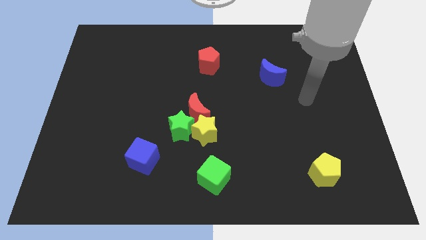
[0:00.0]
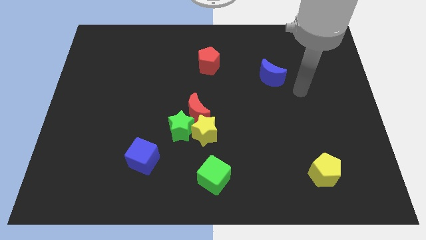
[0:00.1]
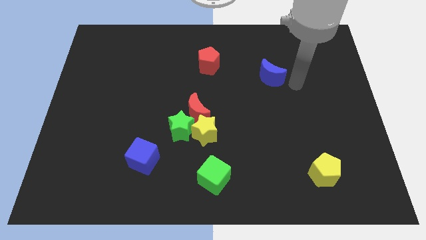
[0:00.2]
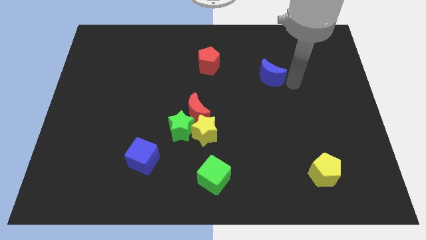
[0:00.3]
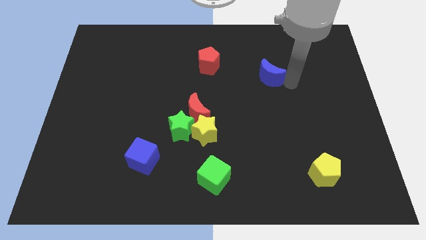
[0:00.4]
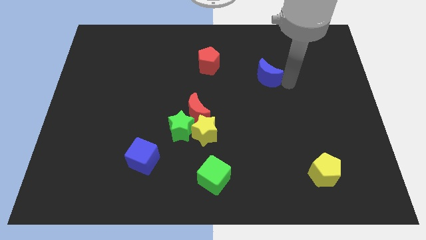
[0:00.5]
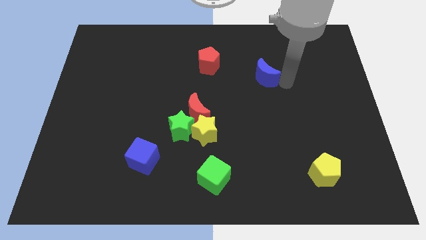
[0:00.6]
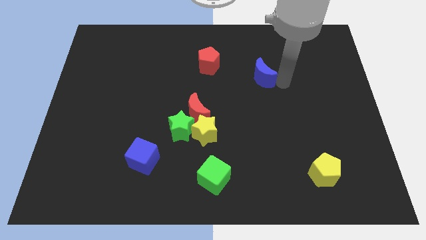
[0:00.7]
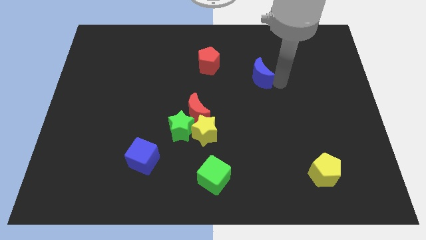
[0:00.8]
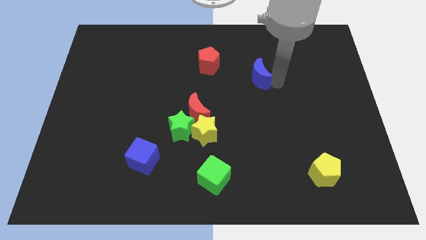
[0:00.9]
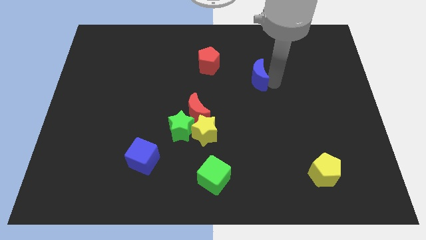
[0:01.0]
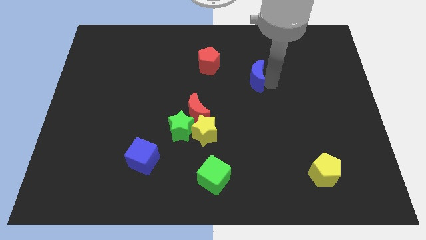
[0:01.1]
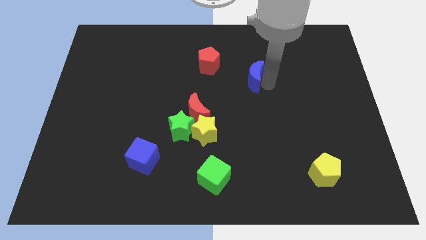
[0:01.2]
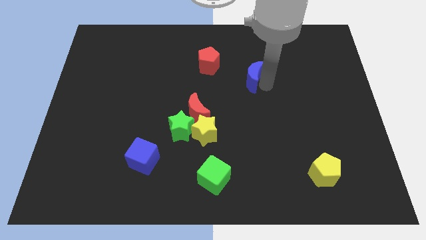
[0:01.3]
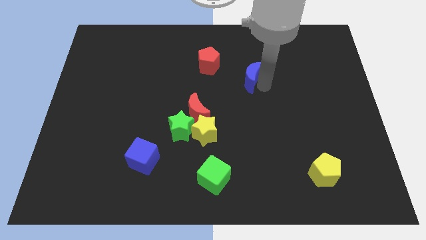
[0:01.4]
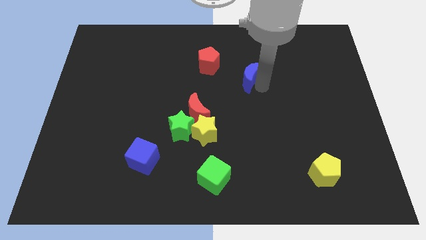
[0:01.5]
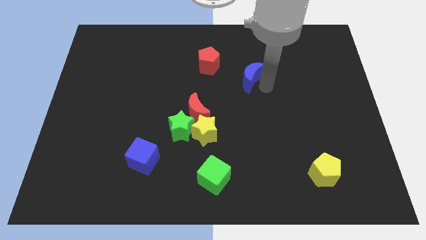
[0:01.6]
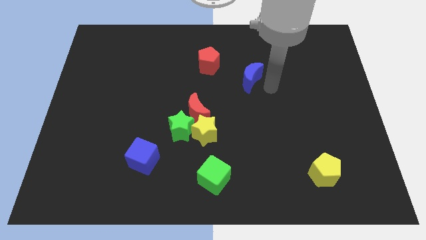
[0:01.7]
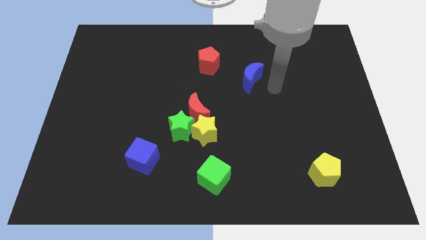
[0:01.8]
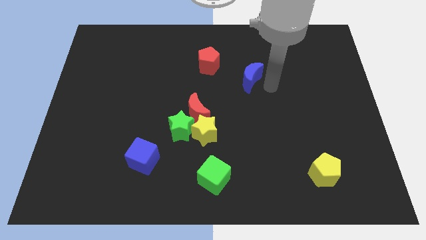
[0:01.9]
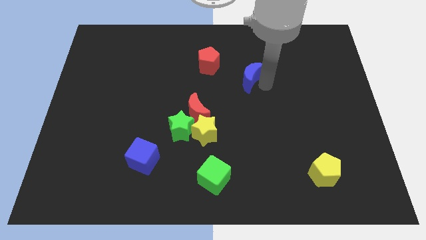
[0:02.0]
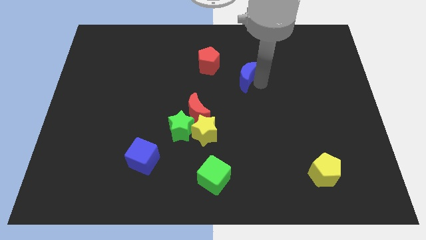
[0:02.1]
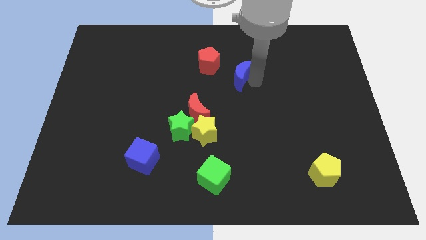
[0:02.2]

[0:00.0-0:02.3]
move the blue moon a little left

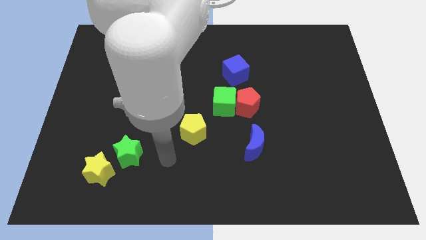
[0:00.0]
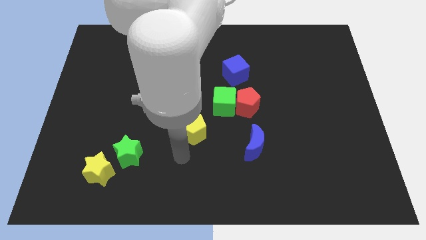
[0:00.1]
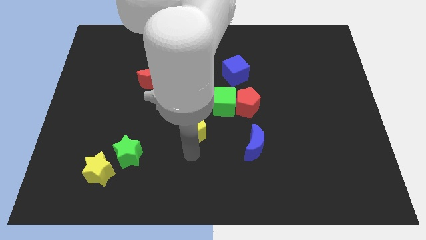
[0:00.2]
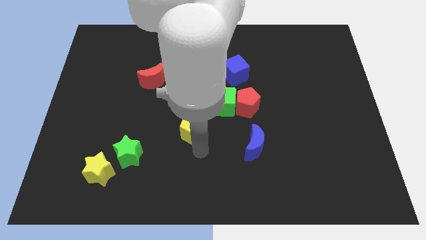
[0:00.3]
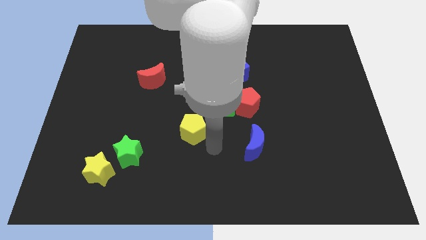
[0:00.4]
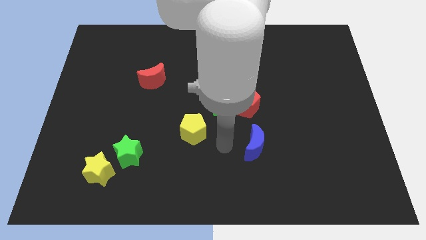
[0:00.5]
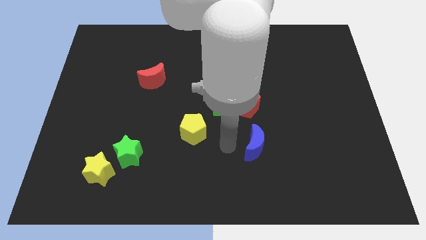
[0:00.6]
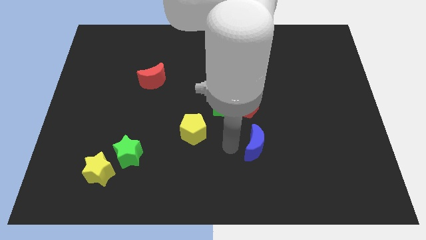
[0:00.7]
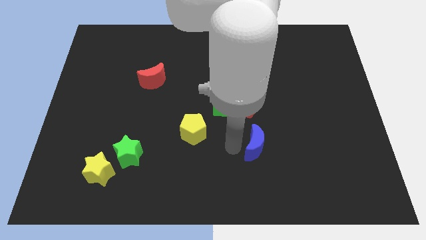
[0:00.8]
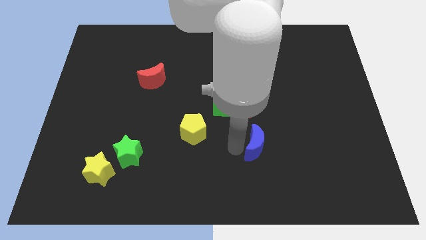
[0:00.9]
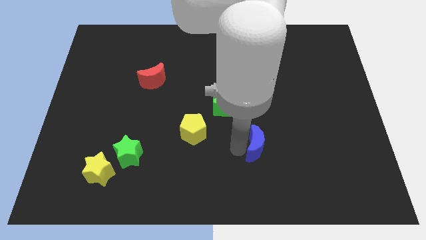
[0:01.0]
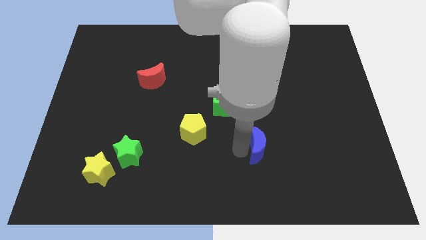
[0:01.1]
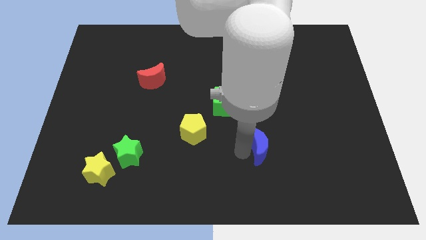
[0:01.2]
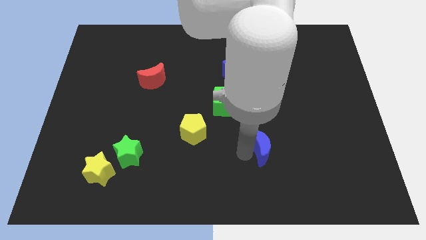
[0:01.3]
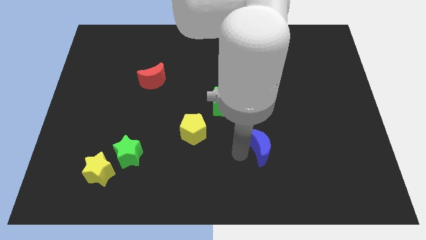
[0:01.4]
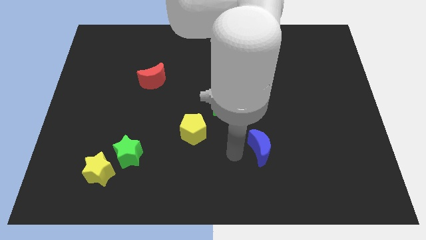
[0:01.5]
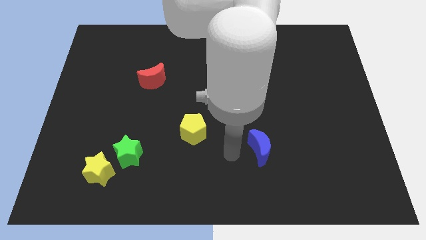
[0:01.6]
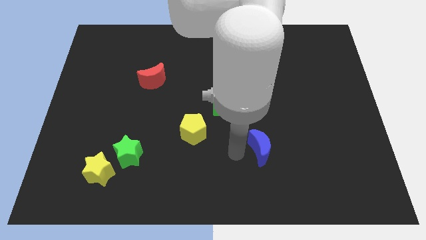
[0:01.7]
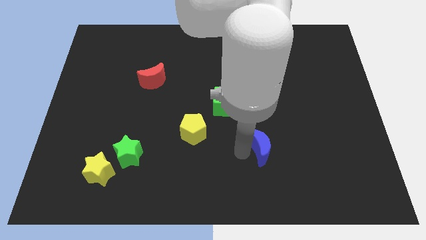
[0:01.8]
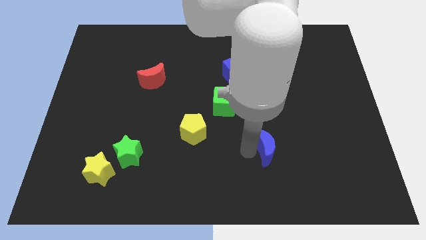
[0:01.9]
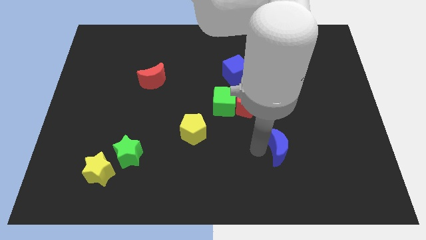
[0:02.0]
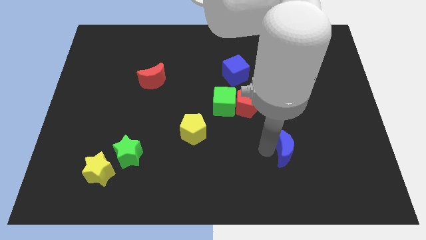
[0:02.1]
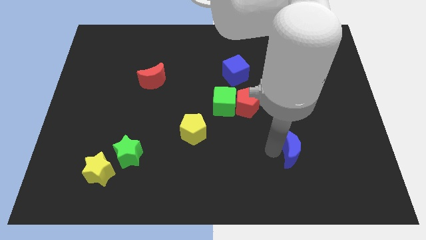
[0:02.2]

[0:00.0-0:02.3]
push the blue moon right a little bit

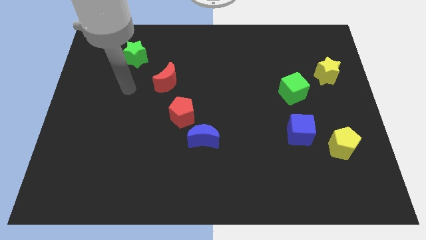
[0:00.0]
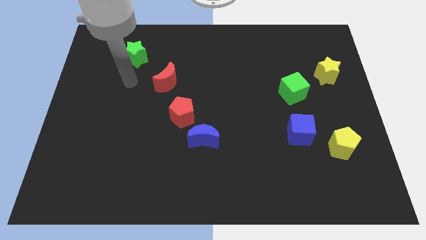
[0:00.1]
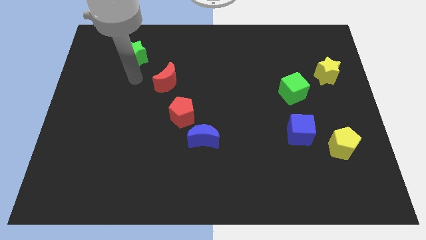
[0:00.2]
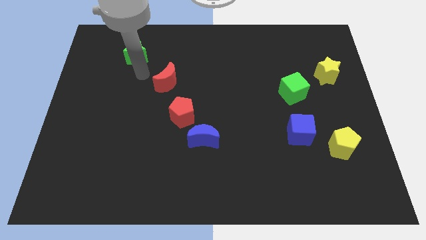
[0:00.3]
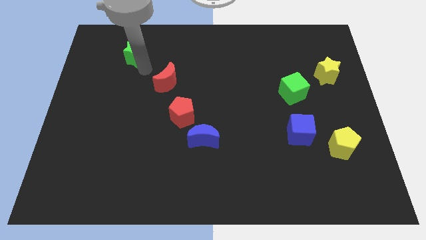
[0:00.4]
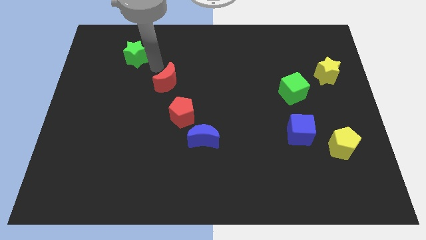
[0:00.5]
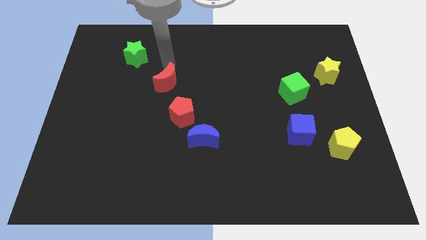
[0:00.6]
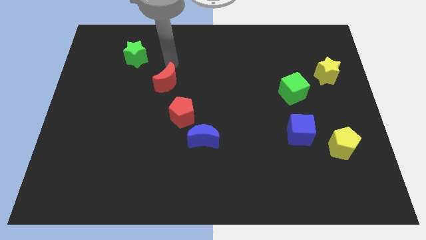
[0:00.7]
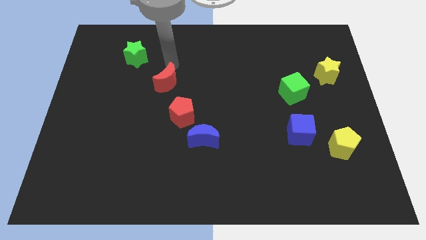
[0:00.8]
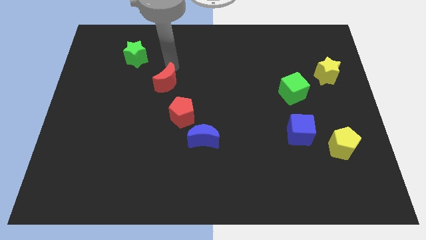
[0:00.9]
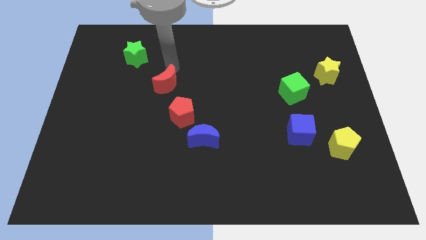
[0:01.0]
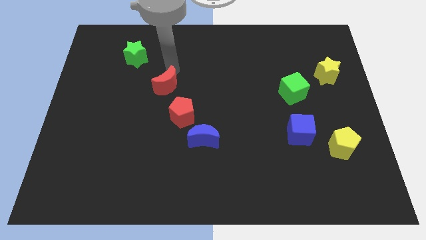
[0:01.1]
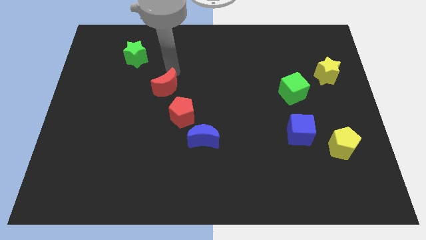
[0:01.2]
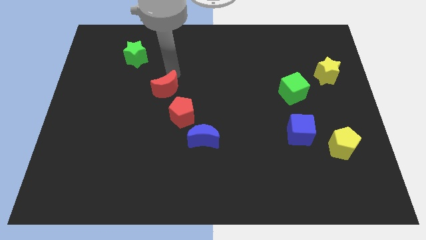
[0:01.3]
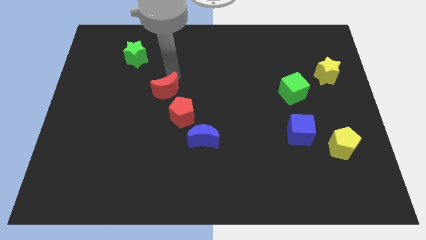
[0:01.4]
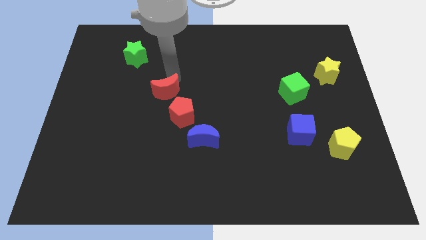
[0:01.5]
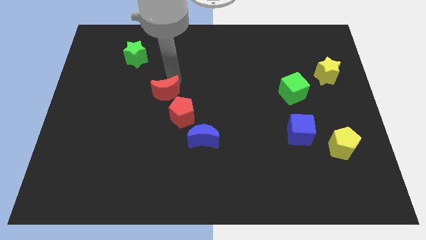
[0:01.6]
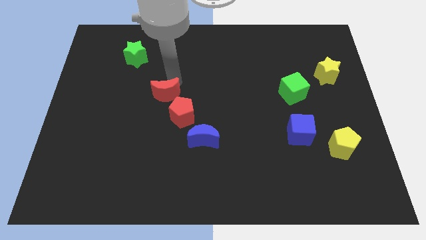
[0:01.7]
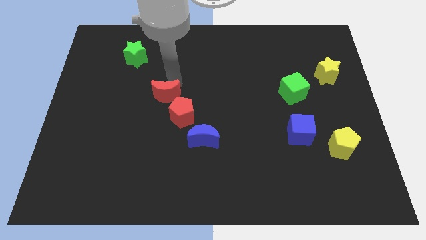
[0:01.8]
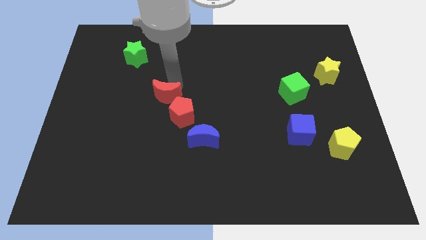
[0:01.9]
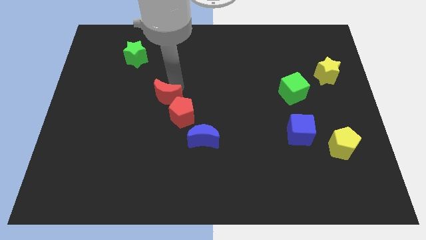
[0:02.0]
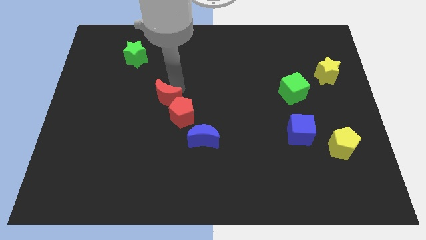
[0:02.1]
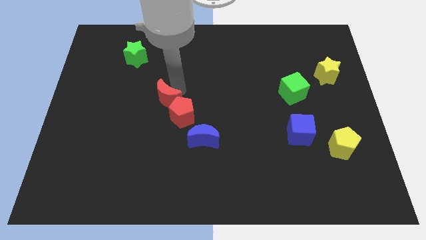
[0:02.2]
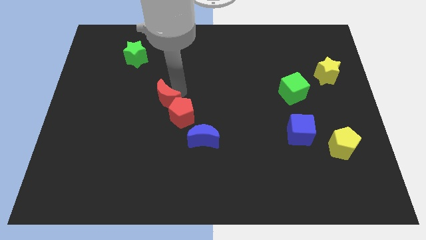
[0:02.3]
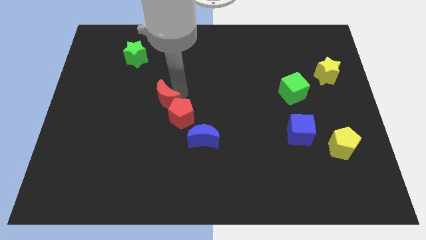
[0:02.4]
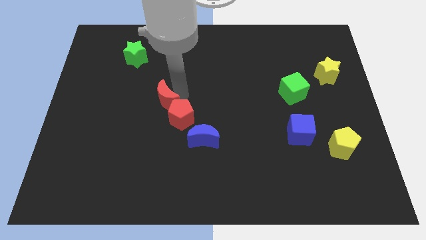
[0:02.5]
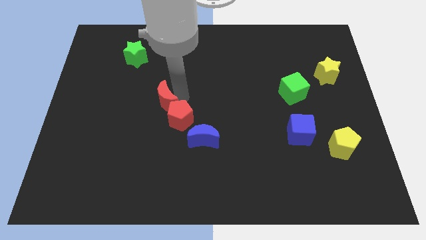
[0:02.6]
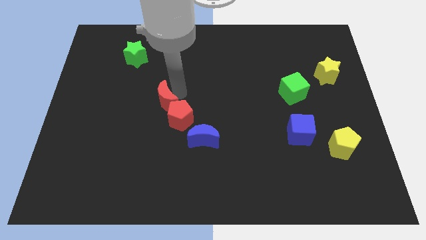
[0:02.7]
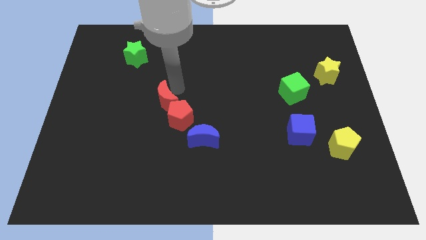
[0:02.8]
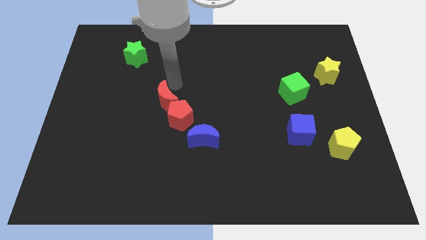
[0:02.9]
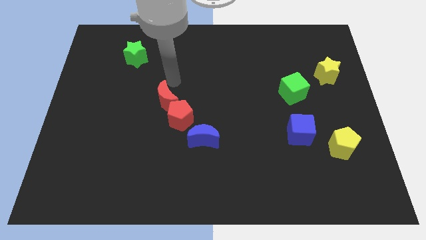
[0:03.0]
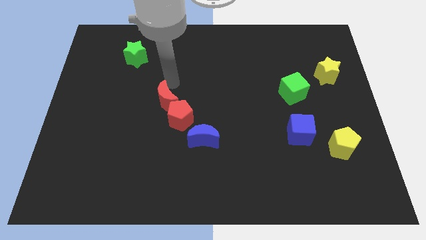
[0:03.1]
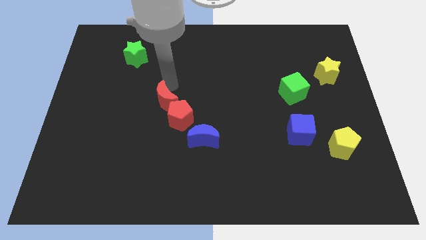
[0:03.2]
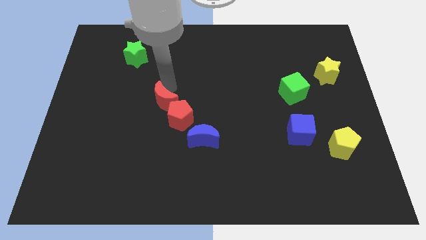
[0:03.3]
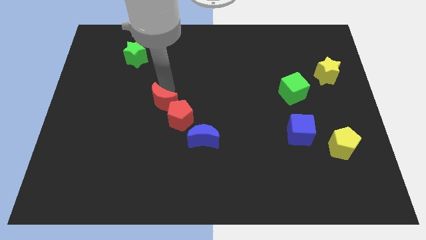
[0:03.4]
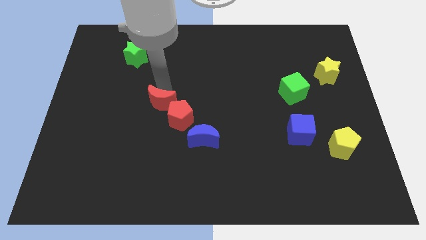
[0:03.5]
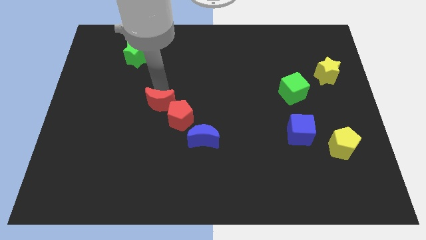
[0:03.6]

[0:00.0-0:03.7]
slightly slide the red moon down
